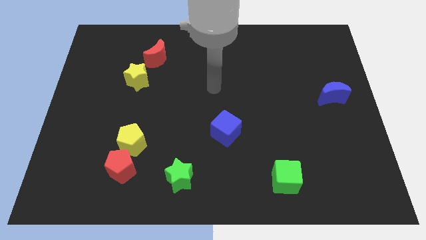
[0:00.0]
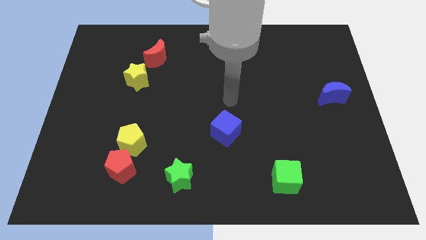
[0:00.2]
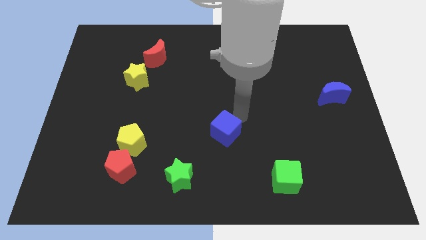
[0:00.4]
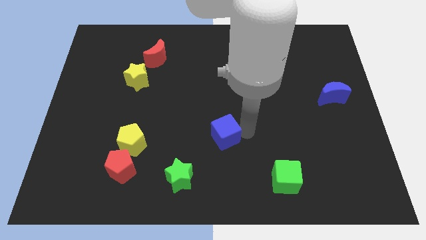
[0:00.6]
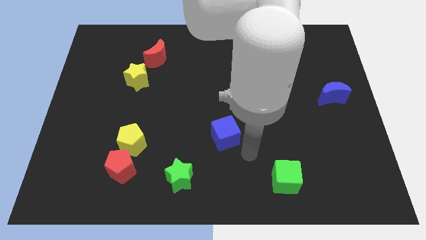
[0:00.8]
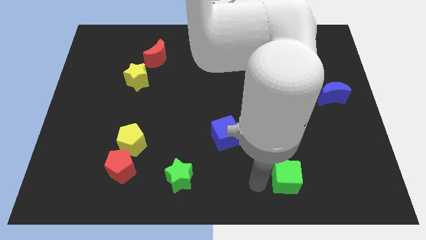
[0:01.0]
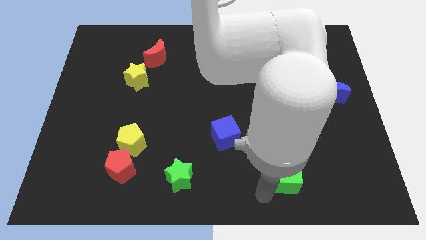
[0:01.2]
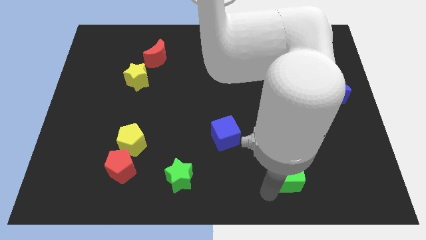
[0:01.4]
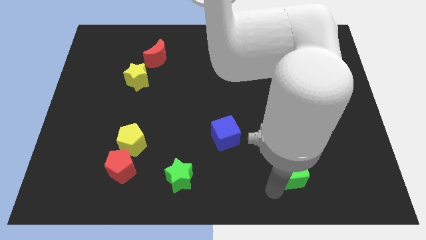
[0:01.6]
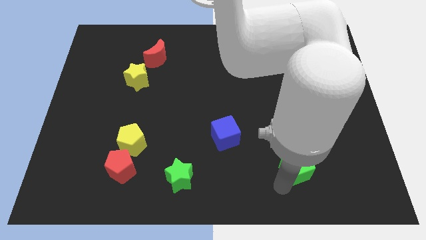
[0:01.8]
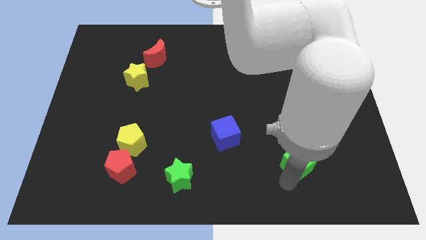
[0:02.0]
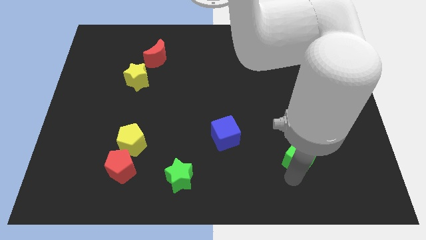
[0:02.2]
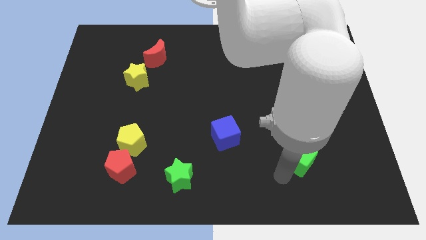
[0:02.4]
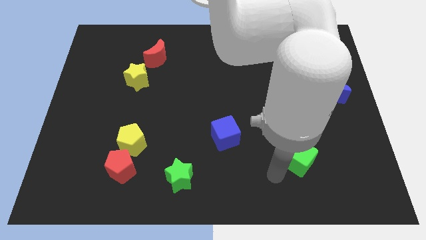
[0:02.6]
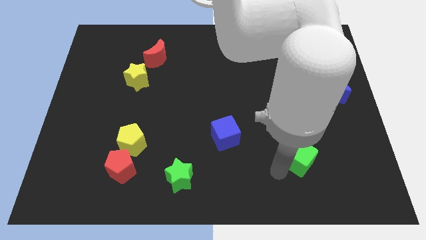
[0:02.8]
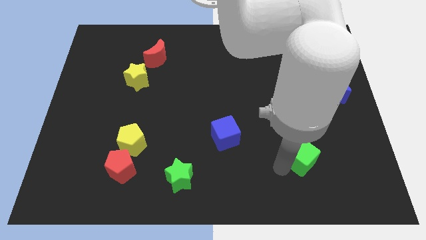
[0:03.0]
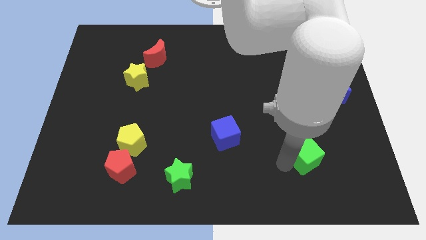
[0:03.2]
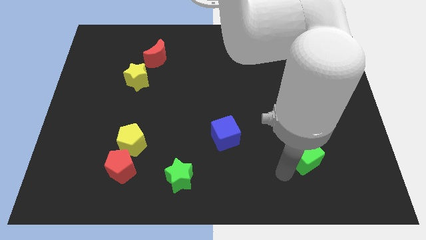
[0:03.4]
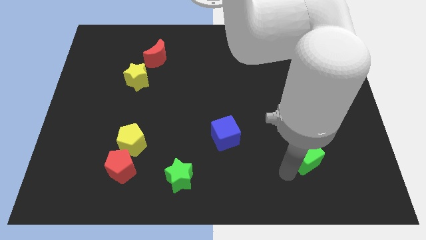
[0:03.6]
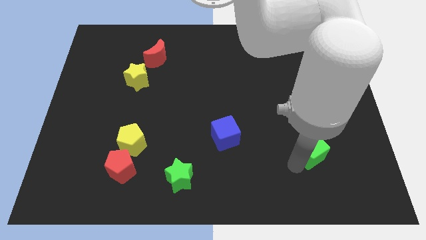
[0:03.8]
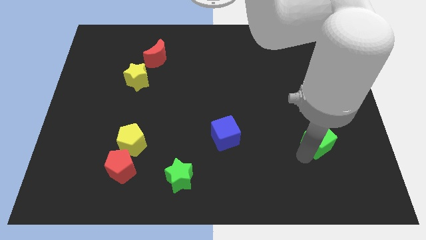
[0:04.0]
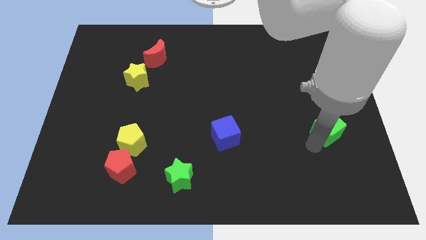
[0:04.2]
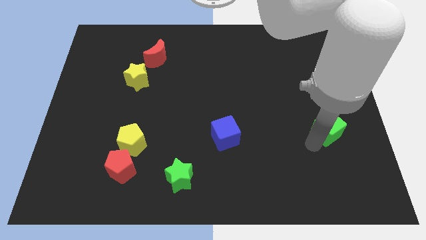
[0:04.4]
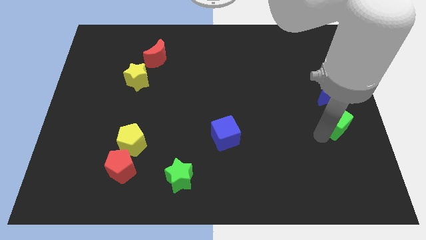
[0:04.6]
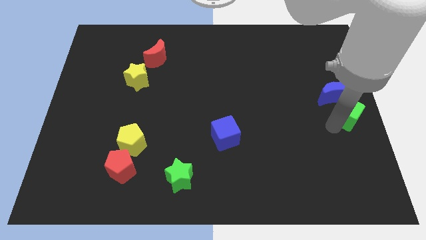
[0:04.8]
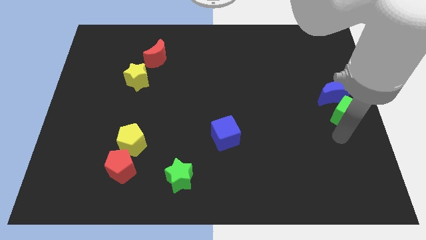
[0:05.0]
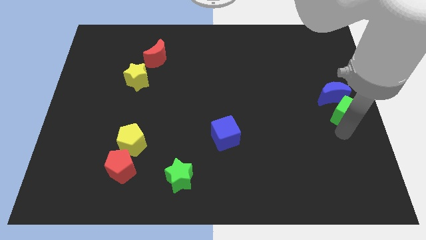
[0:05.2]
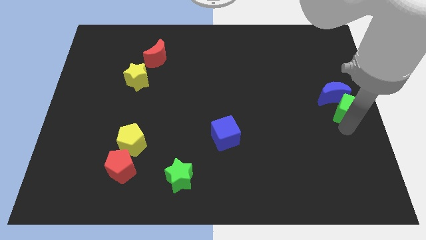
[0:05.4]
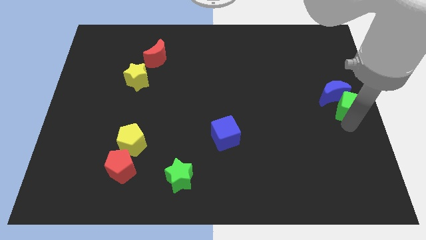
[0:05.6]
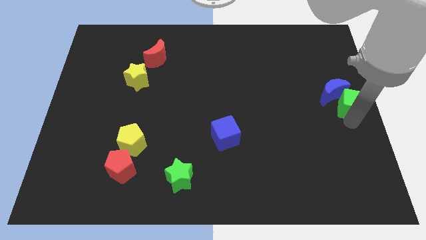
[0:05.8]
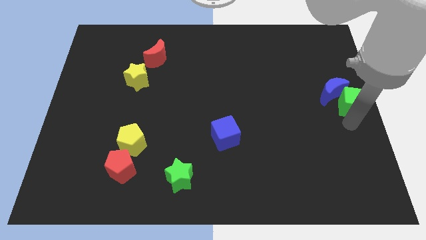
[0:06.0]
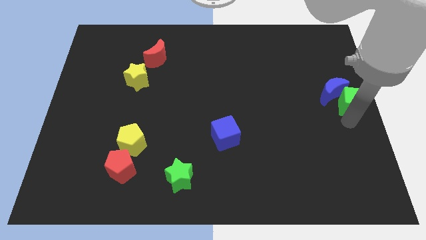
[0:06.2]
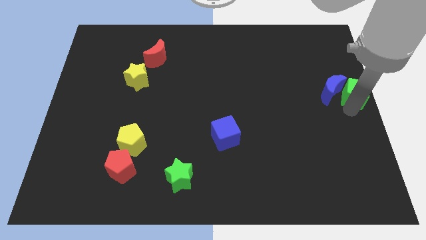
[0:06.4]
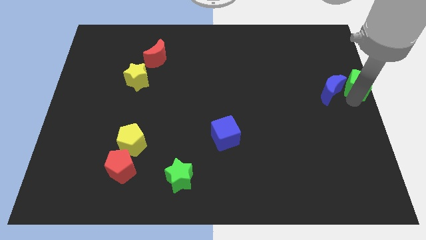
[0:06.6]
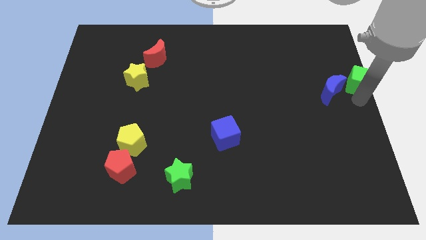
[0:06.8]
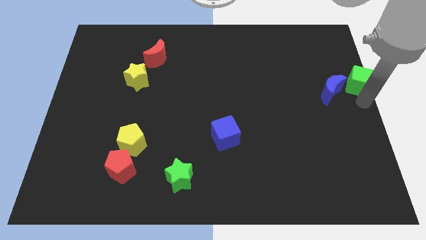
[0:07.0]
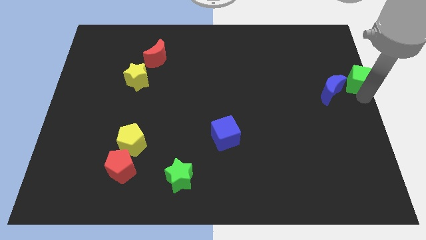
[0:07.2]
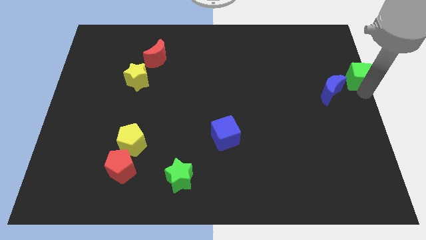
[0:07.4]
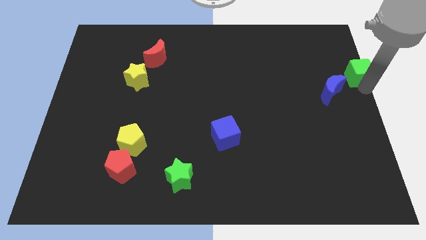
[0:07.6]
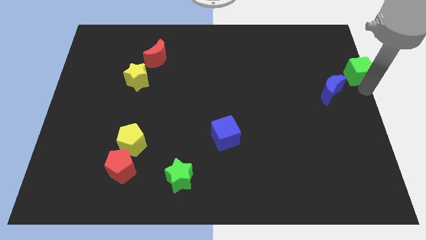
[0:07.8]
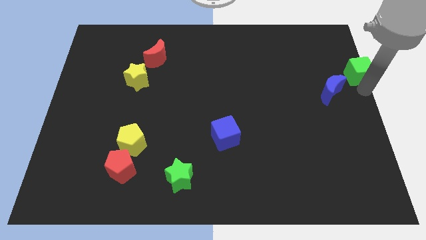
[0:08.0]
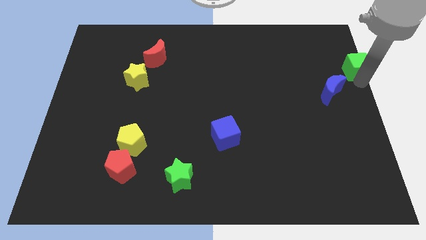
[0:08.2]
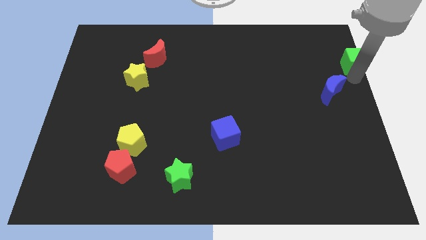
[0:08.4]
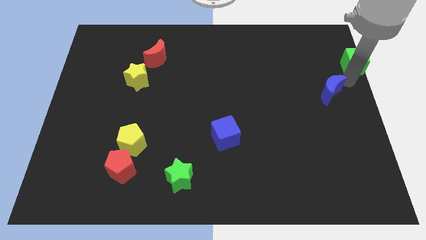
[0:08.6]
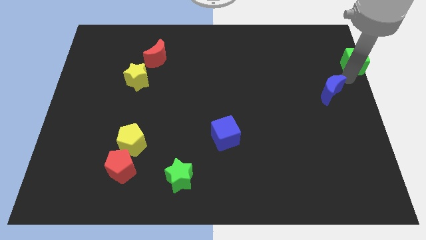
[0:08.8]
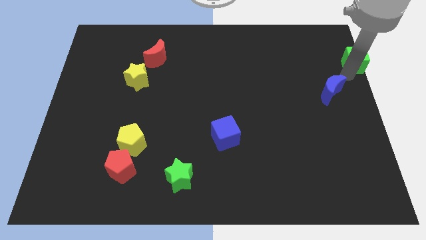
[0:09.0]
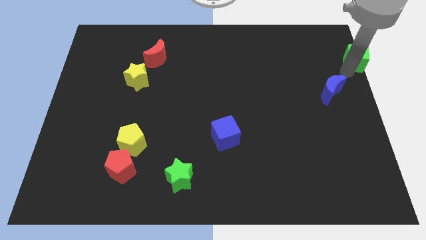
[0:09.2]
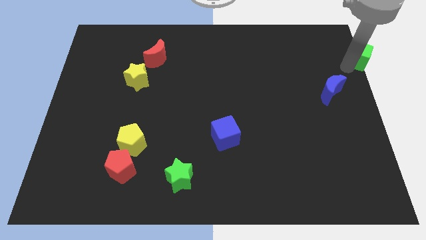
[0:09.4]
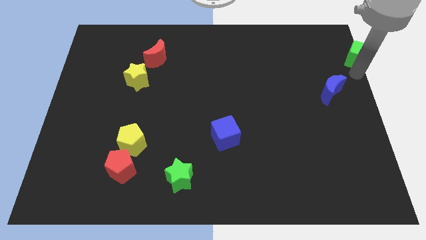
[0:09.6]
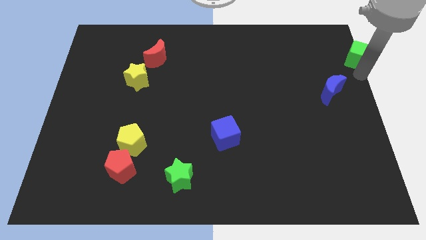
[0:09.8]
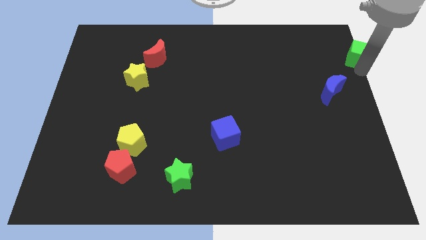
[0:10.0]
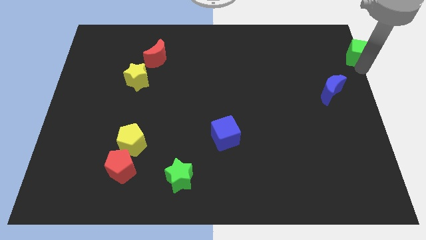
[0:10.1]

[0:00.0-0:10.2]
put the green cube to the upper right corner

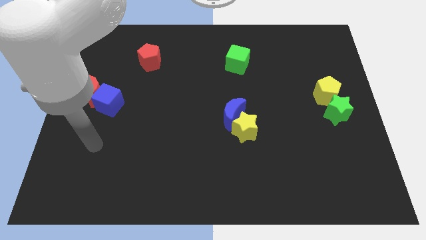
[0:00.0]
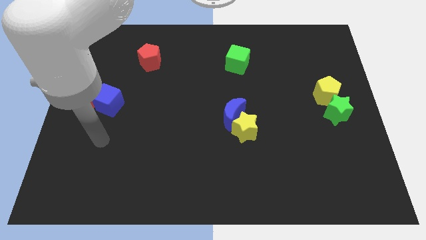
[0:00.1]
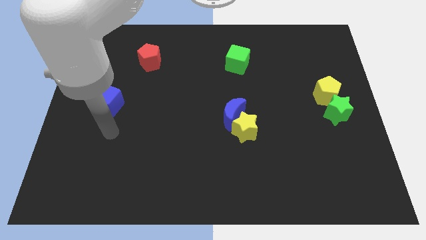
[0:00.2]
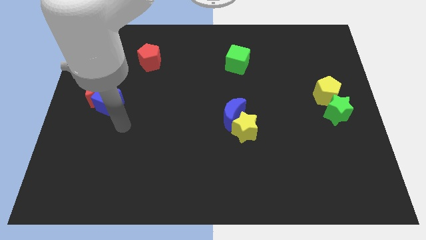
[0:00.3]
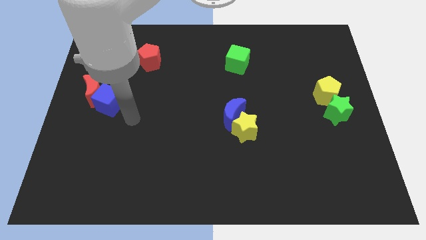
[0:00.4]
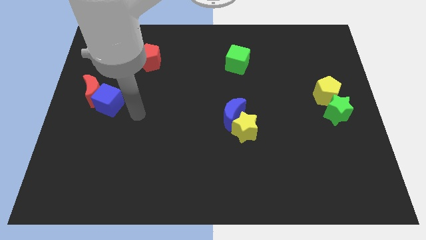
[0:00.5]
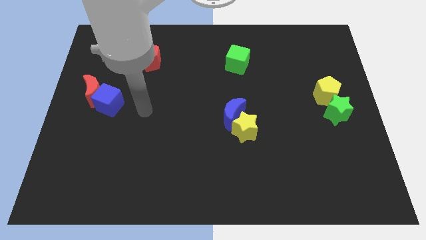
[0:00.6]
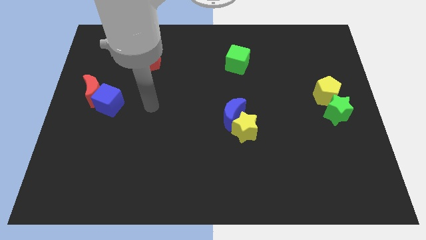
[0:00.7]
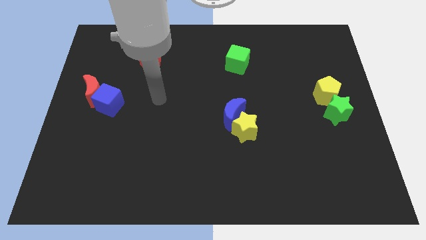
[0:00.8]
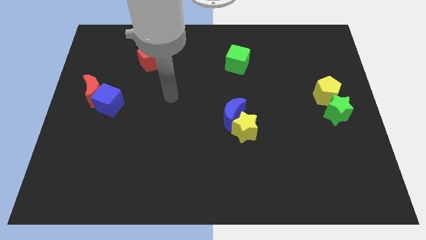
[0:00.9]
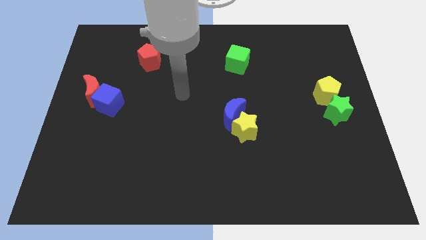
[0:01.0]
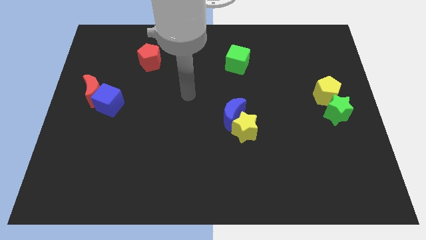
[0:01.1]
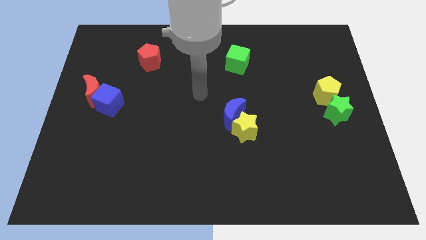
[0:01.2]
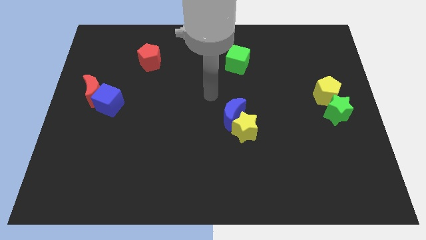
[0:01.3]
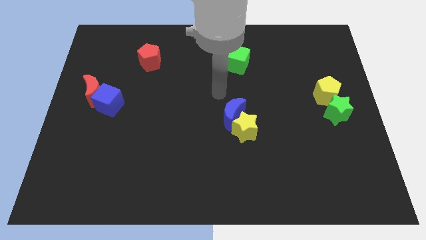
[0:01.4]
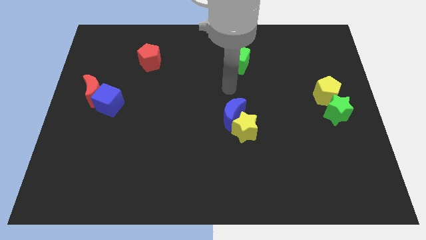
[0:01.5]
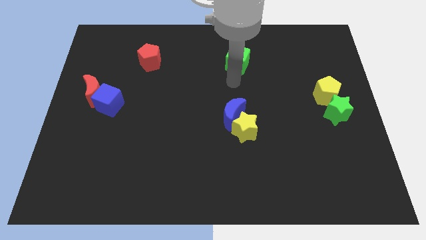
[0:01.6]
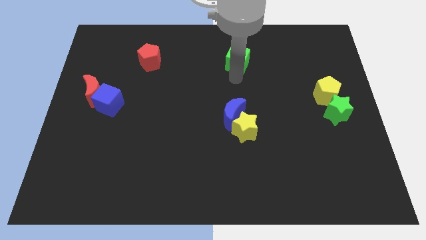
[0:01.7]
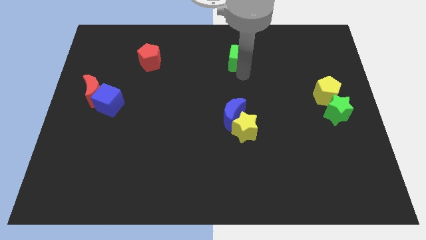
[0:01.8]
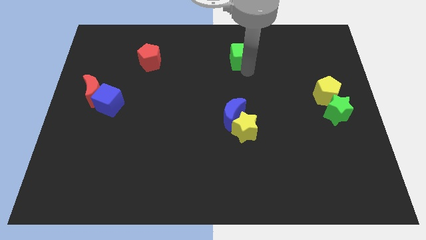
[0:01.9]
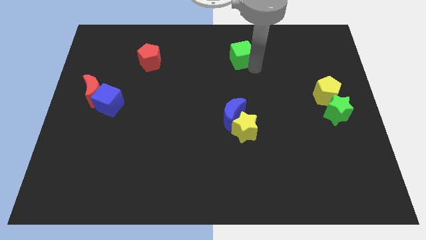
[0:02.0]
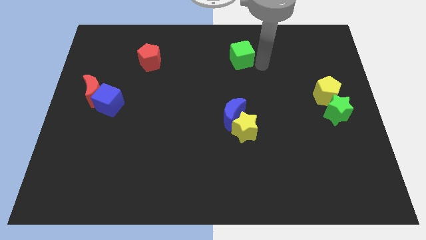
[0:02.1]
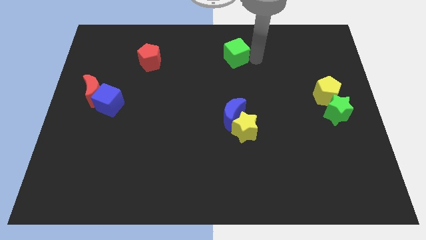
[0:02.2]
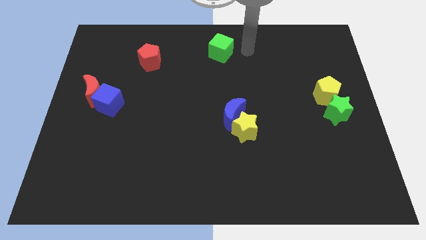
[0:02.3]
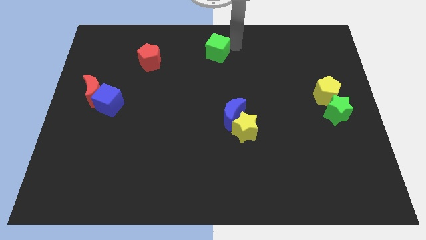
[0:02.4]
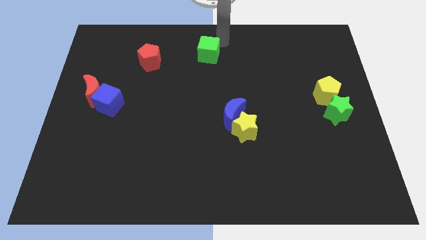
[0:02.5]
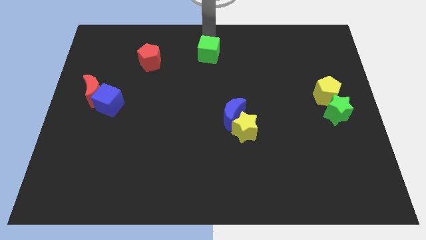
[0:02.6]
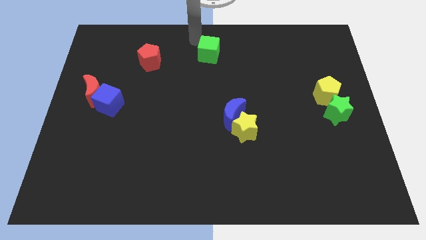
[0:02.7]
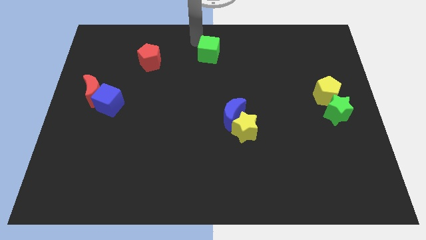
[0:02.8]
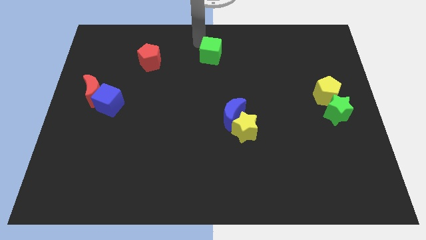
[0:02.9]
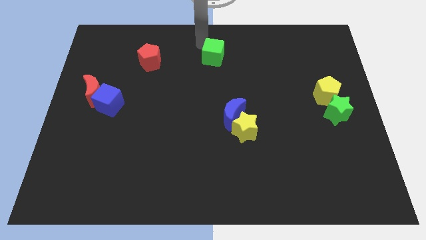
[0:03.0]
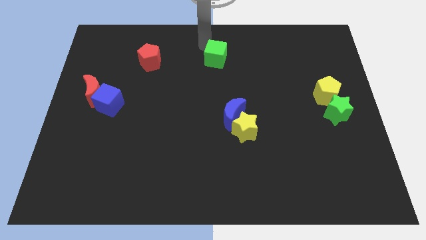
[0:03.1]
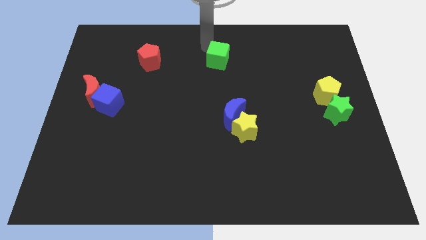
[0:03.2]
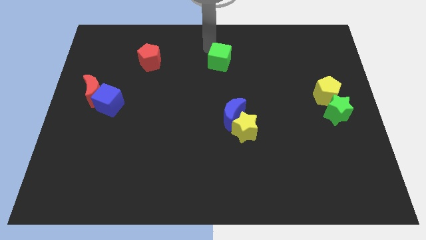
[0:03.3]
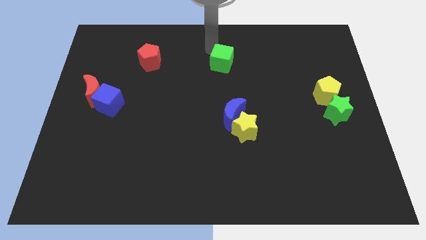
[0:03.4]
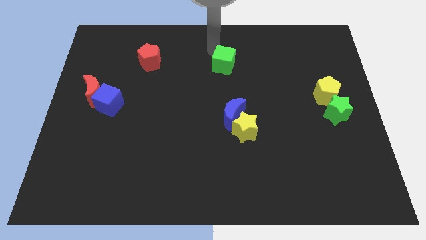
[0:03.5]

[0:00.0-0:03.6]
put the green cube to the middle of the board
